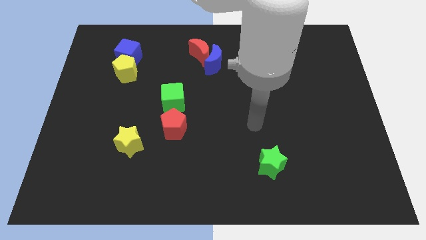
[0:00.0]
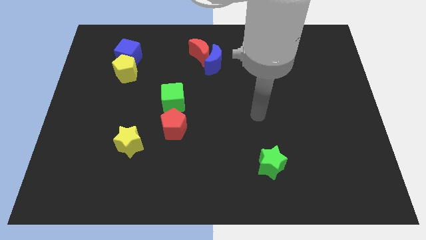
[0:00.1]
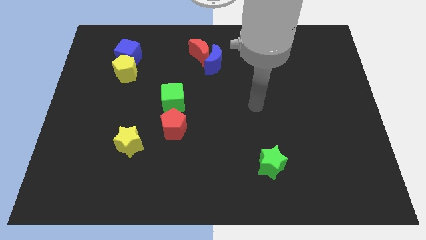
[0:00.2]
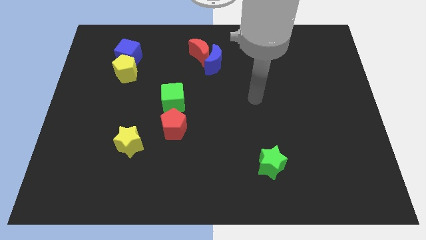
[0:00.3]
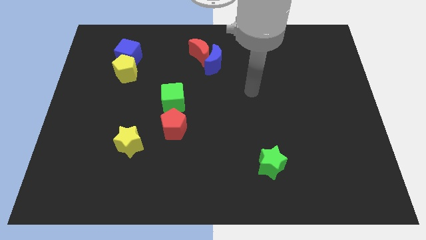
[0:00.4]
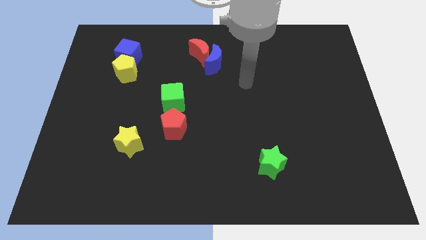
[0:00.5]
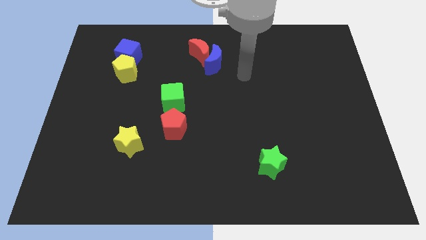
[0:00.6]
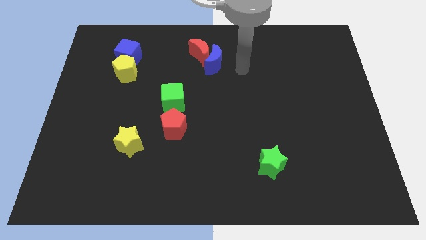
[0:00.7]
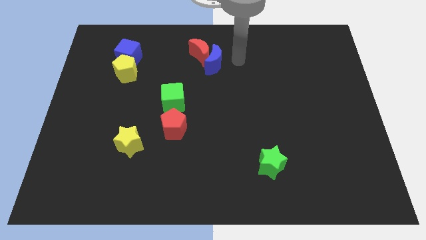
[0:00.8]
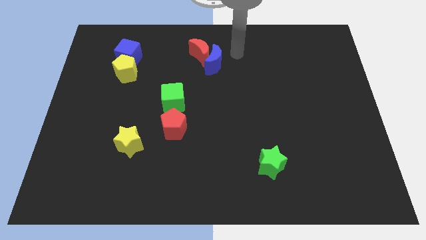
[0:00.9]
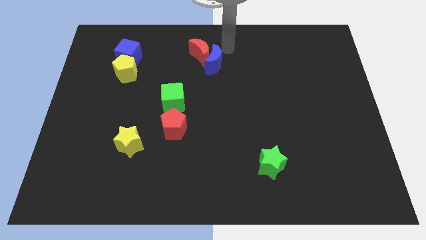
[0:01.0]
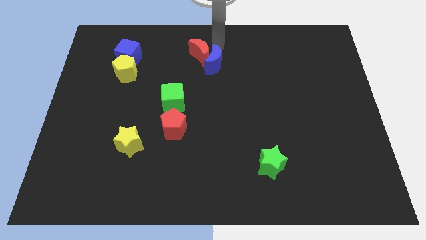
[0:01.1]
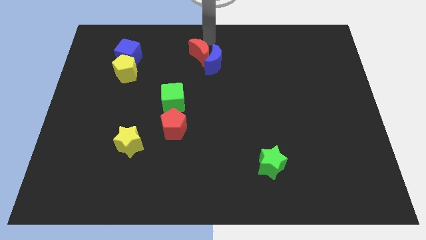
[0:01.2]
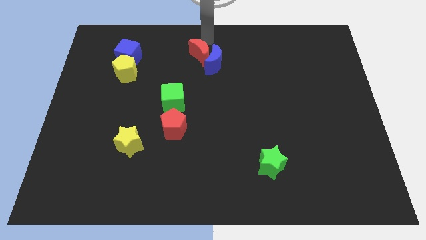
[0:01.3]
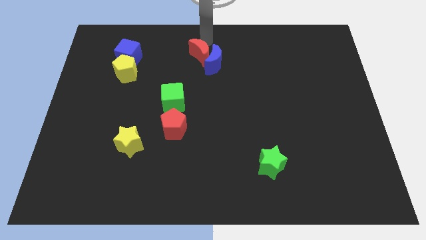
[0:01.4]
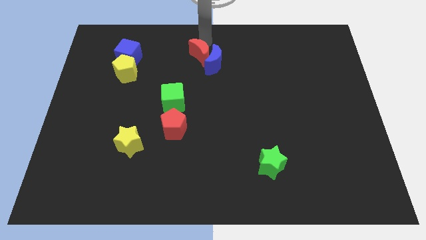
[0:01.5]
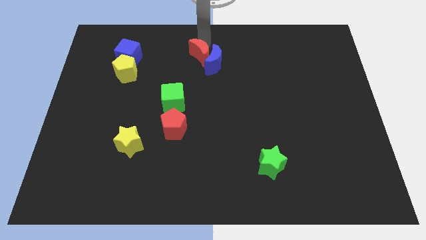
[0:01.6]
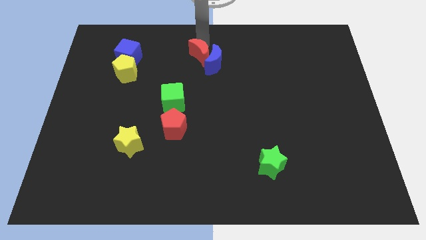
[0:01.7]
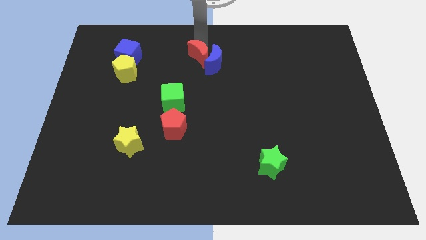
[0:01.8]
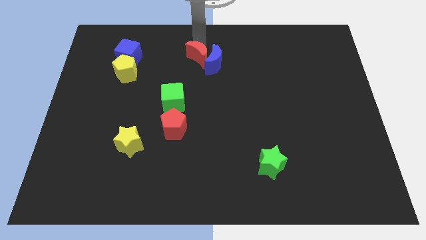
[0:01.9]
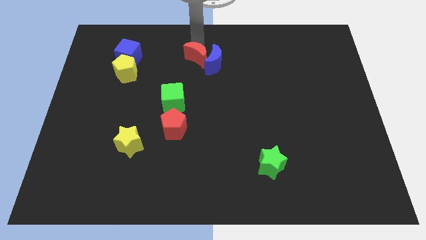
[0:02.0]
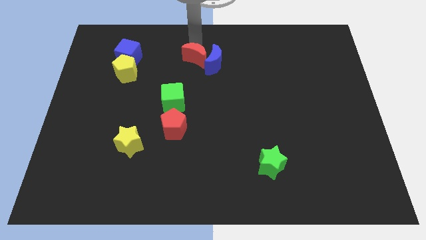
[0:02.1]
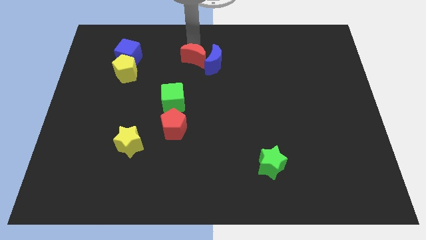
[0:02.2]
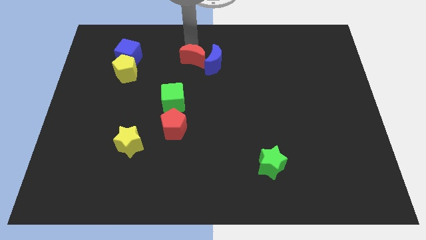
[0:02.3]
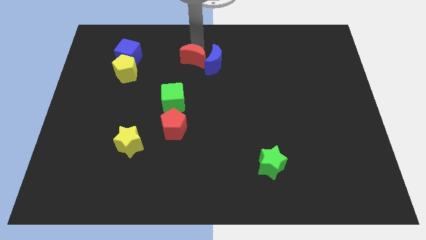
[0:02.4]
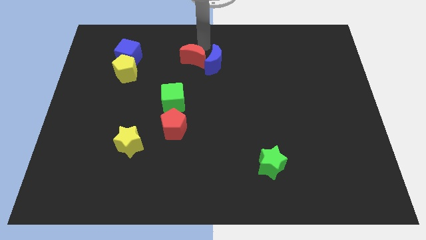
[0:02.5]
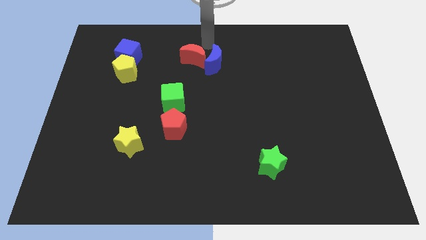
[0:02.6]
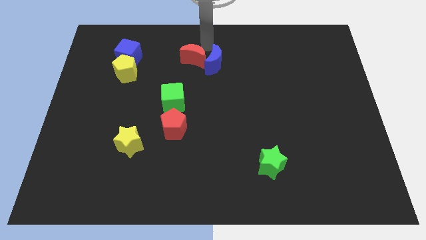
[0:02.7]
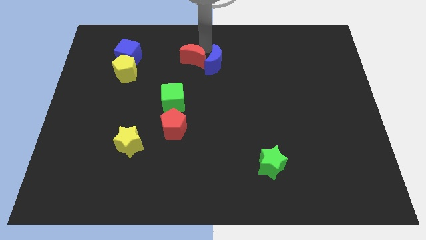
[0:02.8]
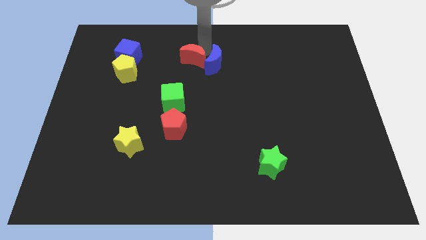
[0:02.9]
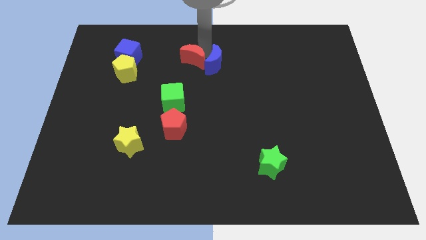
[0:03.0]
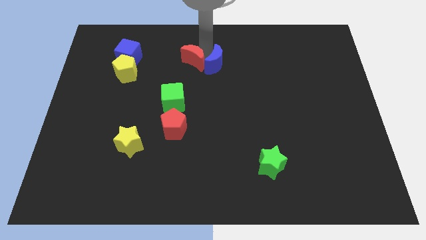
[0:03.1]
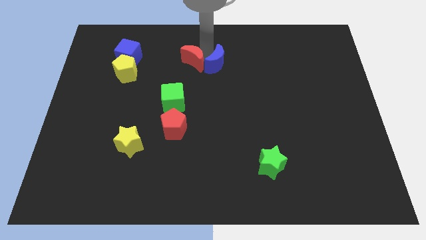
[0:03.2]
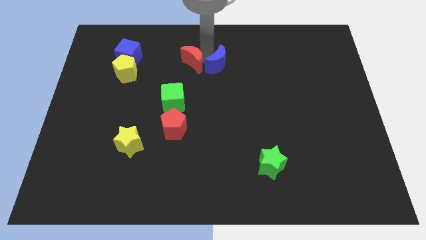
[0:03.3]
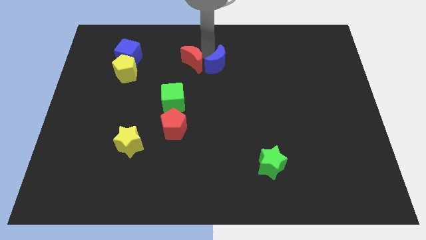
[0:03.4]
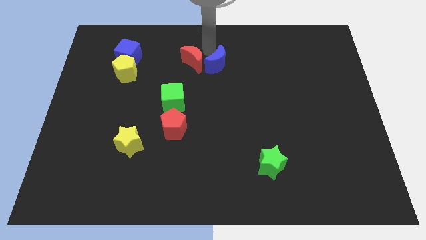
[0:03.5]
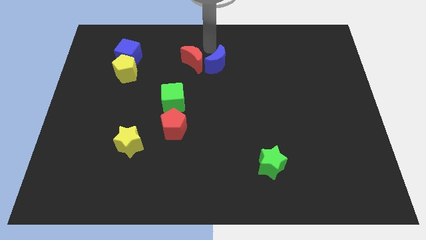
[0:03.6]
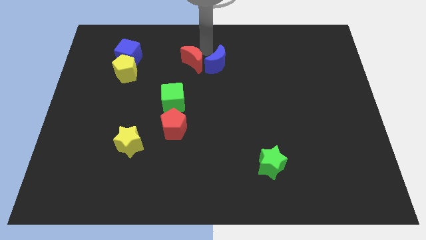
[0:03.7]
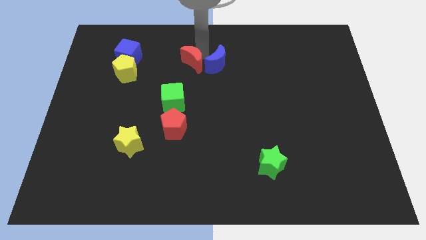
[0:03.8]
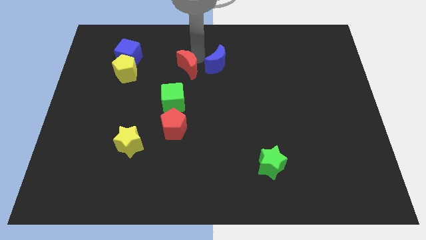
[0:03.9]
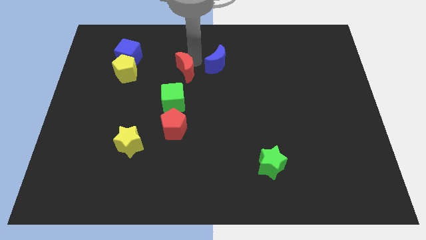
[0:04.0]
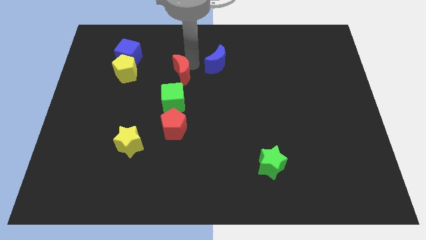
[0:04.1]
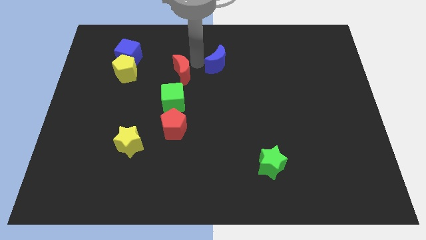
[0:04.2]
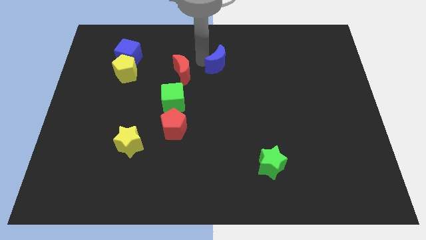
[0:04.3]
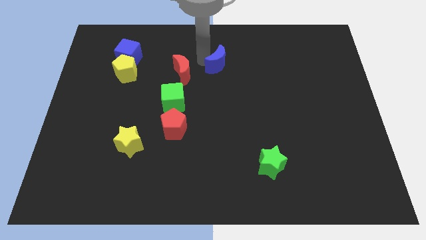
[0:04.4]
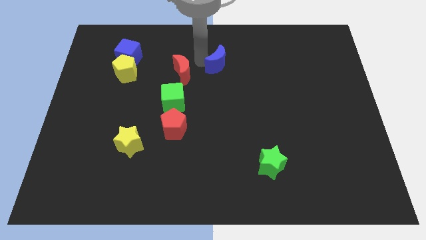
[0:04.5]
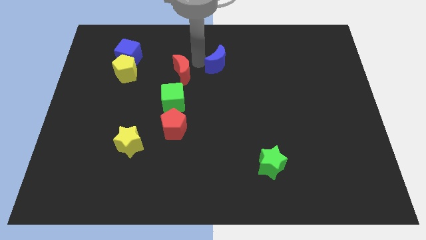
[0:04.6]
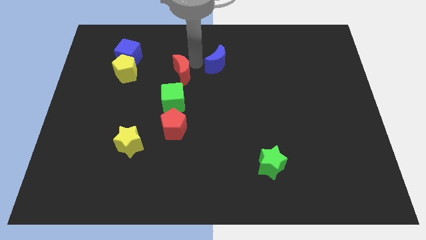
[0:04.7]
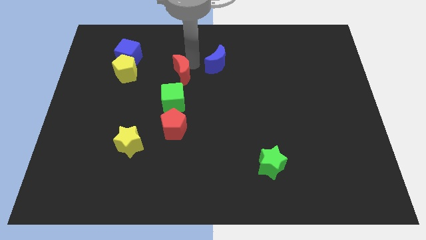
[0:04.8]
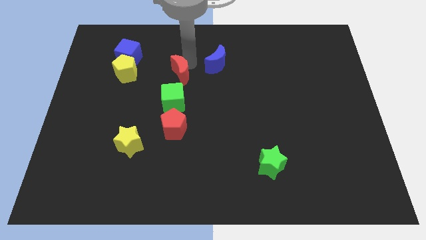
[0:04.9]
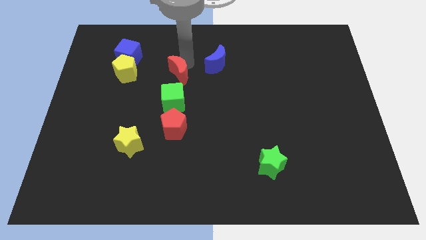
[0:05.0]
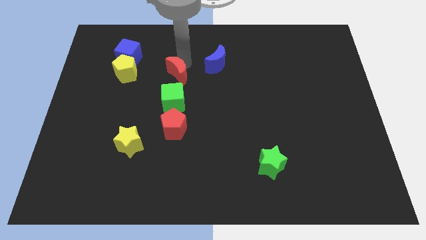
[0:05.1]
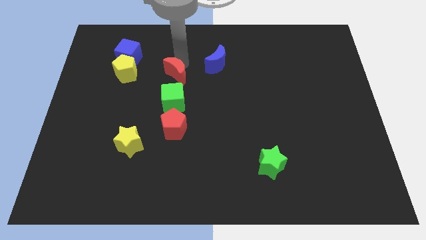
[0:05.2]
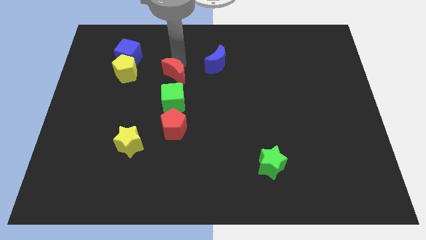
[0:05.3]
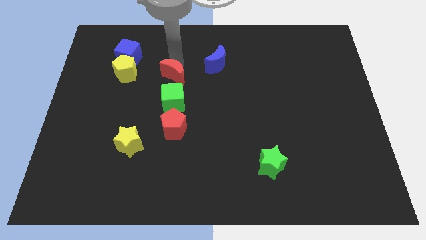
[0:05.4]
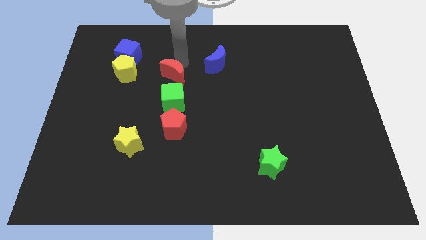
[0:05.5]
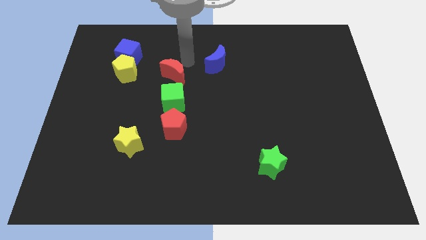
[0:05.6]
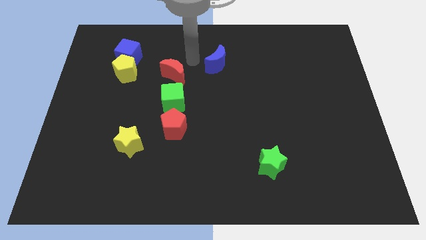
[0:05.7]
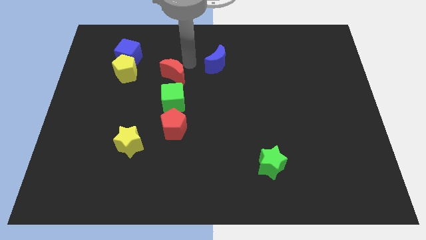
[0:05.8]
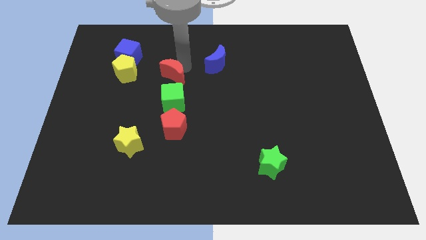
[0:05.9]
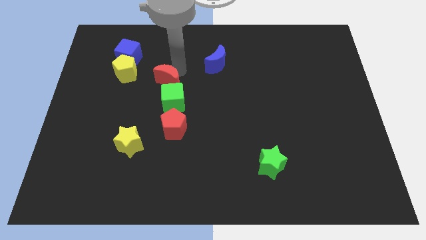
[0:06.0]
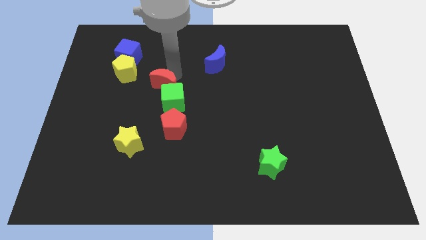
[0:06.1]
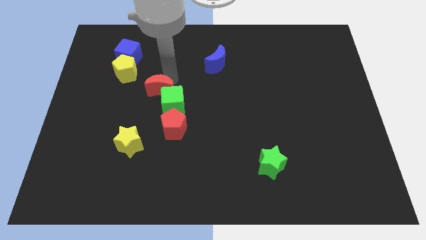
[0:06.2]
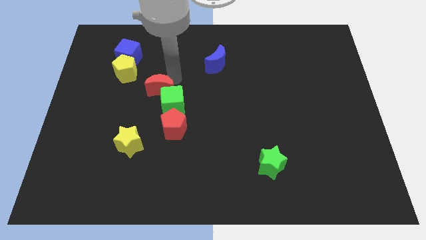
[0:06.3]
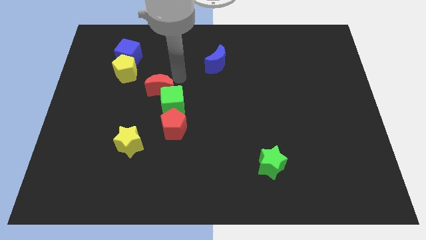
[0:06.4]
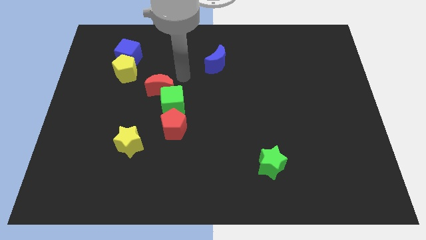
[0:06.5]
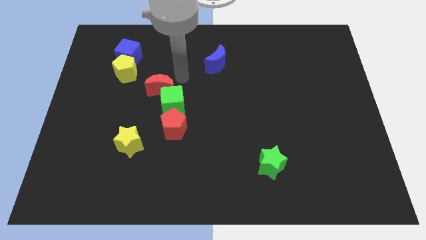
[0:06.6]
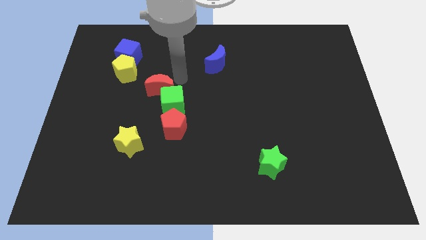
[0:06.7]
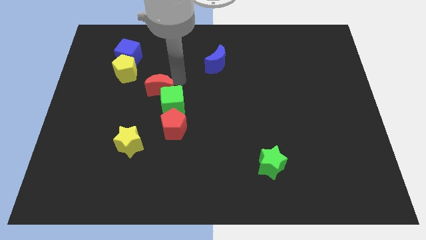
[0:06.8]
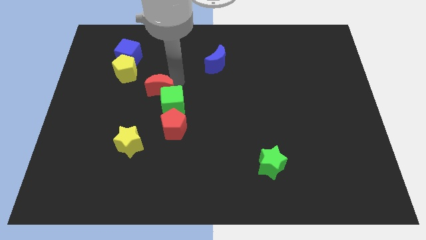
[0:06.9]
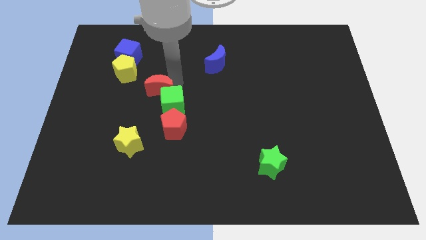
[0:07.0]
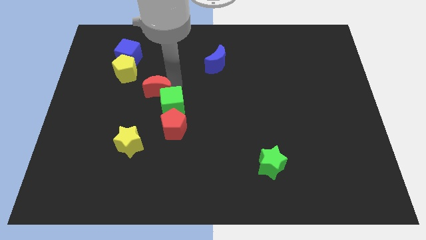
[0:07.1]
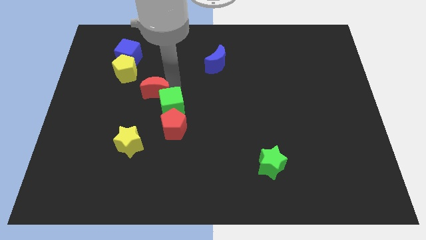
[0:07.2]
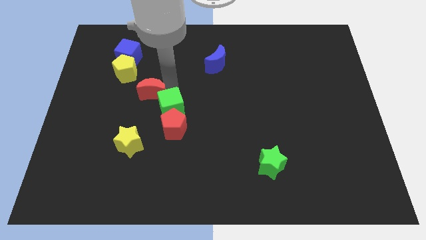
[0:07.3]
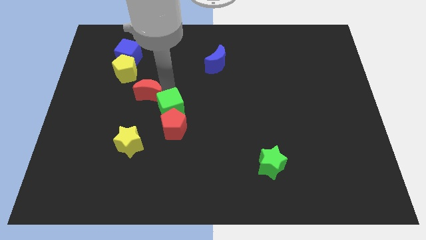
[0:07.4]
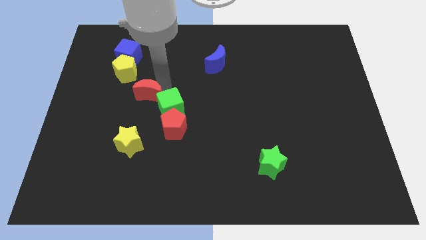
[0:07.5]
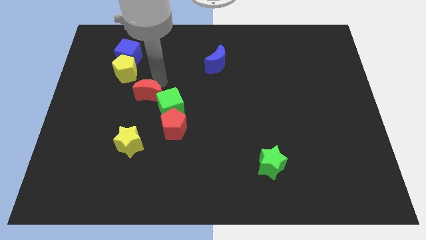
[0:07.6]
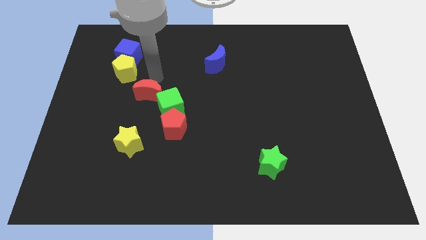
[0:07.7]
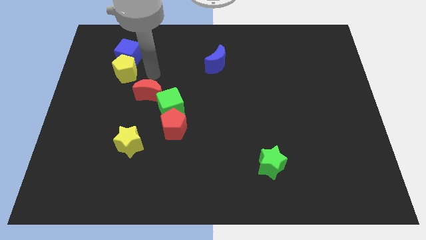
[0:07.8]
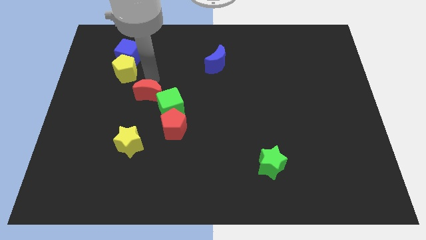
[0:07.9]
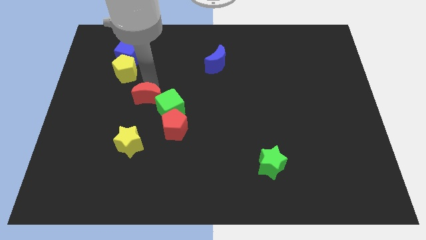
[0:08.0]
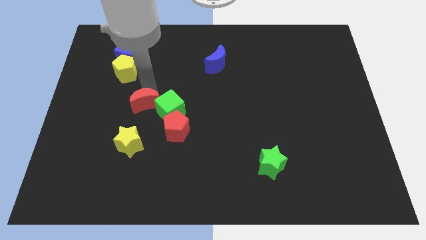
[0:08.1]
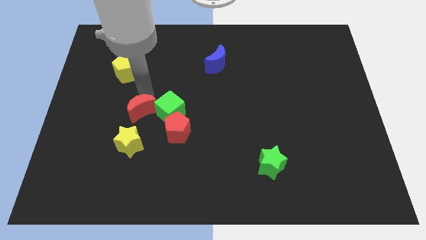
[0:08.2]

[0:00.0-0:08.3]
move the red moon to the bottom left of the green cube
